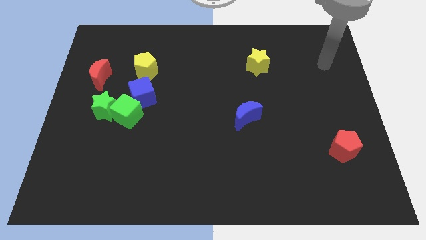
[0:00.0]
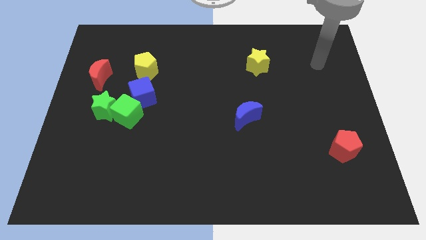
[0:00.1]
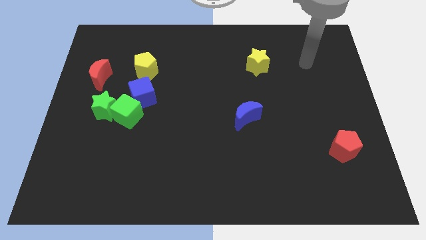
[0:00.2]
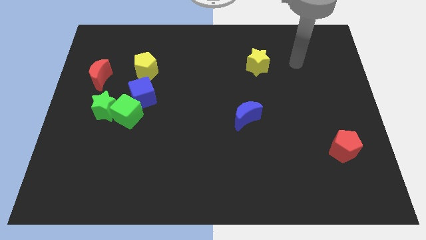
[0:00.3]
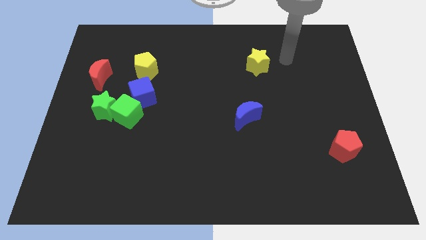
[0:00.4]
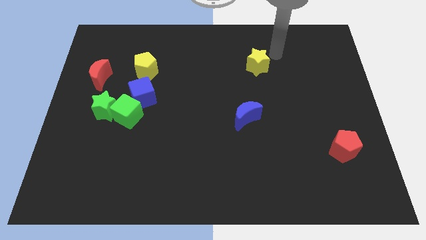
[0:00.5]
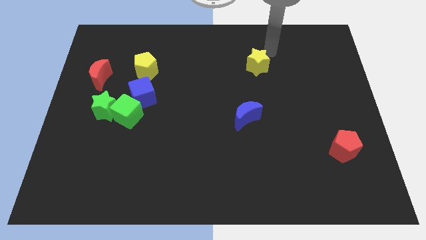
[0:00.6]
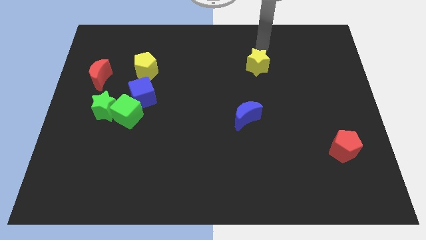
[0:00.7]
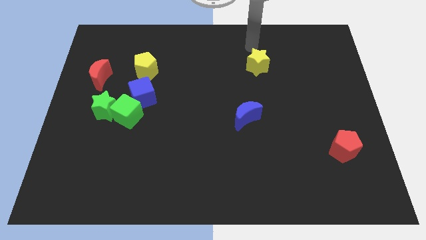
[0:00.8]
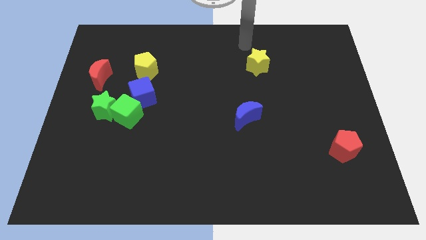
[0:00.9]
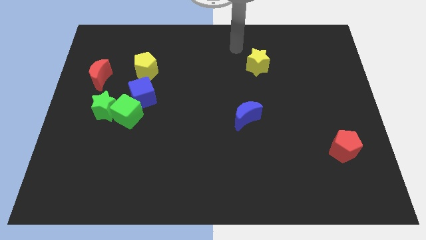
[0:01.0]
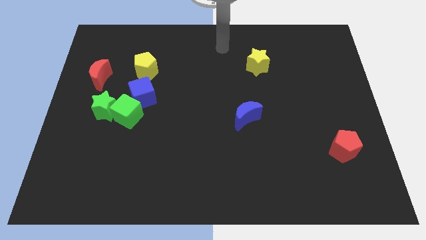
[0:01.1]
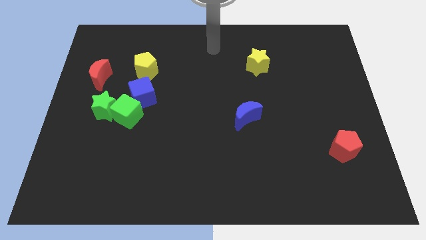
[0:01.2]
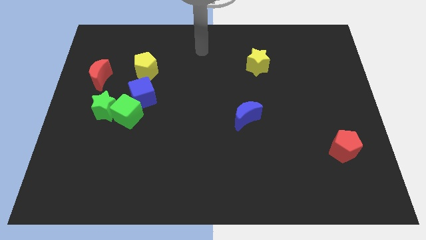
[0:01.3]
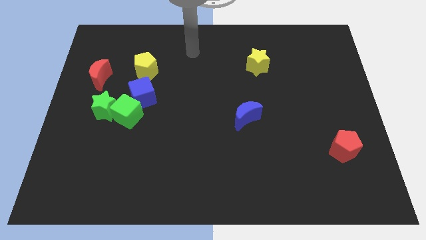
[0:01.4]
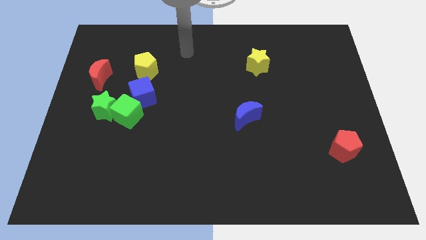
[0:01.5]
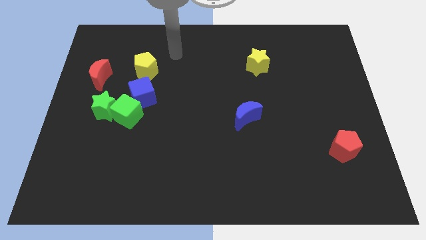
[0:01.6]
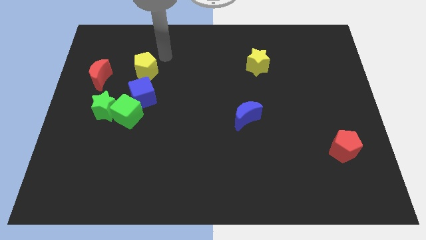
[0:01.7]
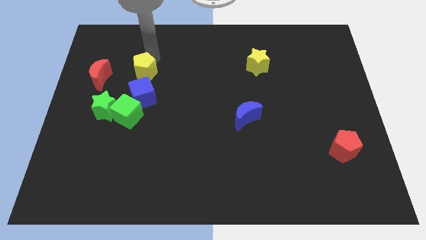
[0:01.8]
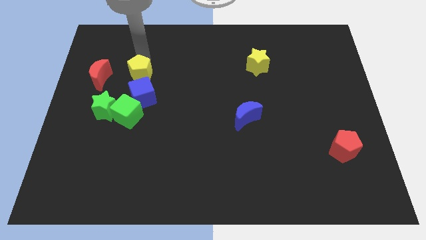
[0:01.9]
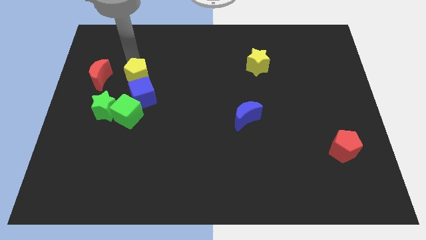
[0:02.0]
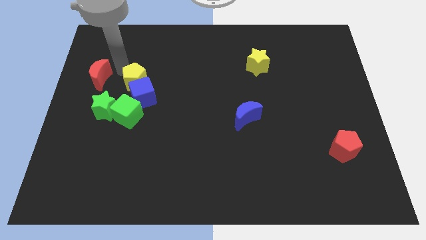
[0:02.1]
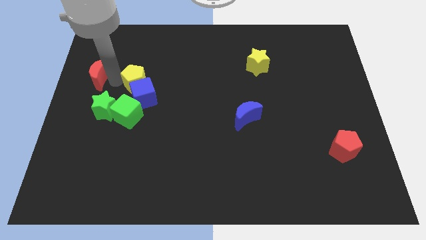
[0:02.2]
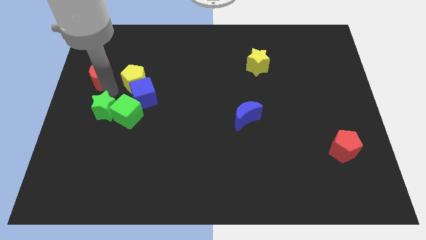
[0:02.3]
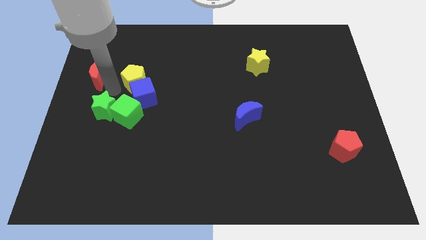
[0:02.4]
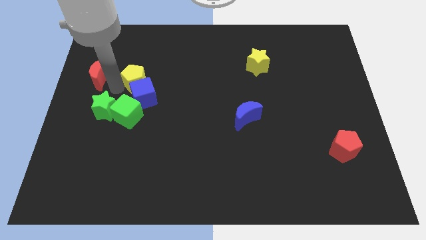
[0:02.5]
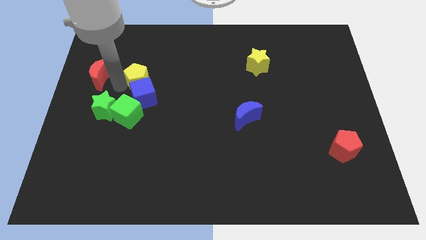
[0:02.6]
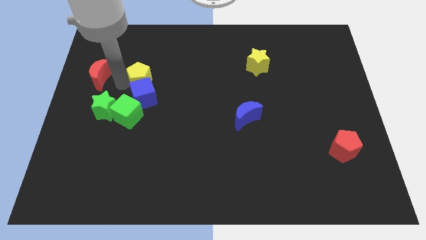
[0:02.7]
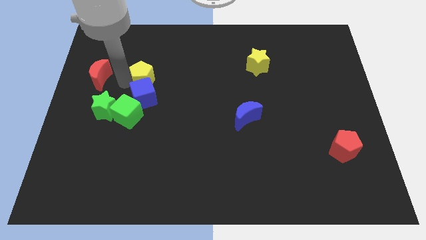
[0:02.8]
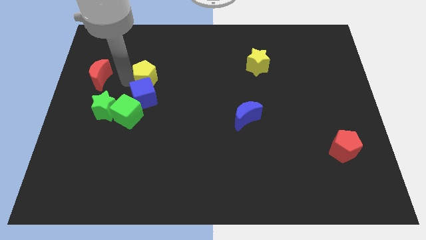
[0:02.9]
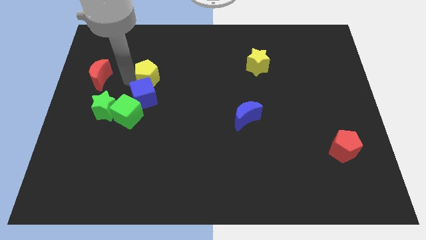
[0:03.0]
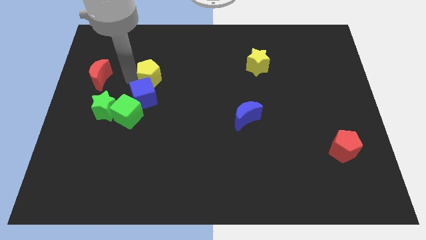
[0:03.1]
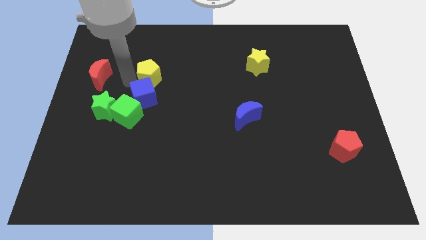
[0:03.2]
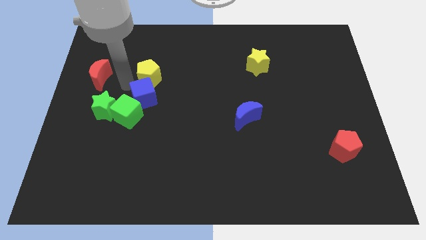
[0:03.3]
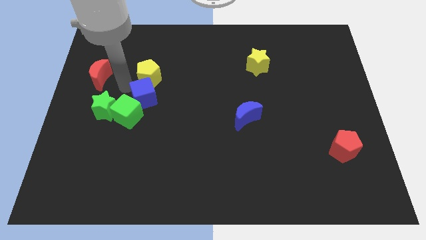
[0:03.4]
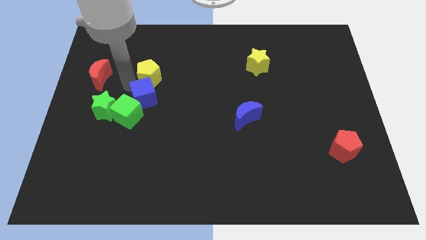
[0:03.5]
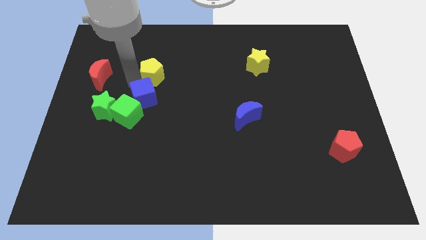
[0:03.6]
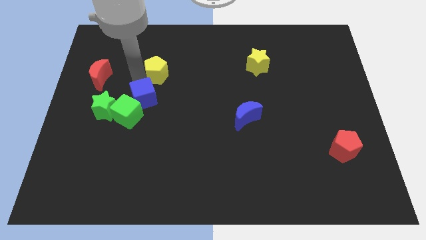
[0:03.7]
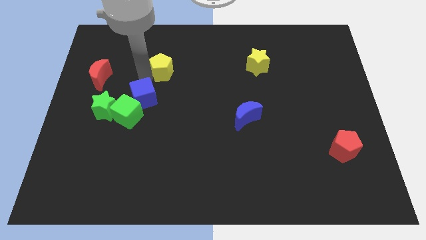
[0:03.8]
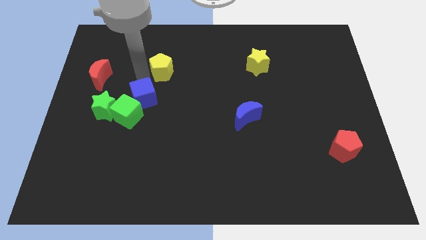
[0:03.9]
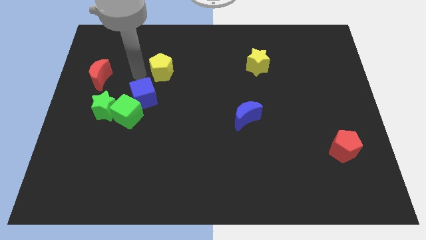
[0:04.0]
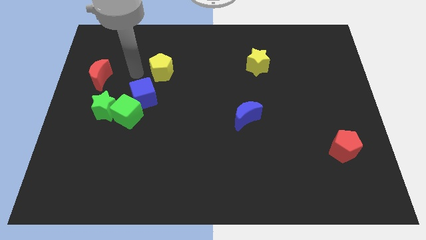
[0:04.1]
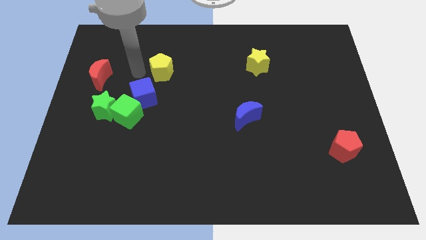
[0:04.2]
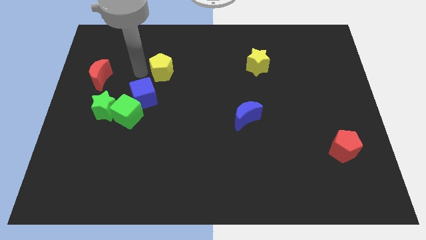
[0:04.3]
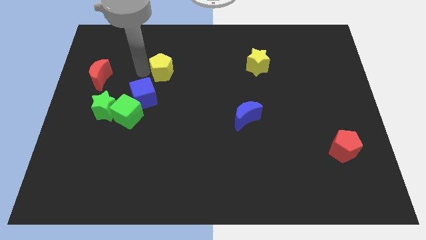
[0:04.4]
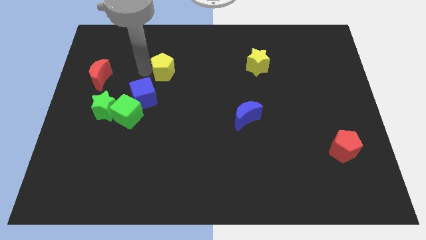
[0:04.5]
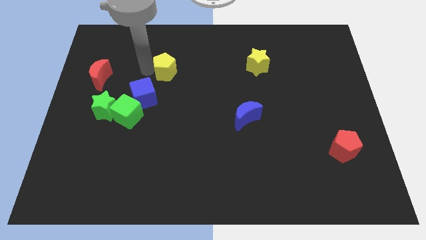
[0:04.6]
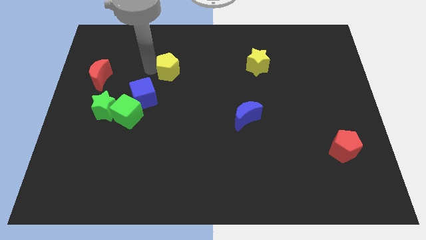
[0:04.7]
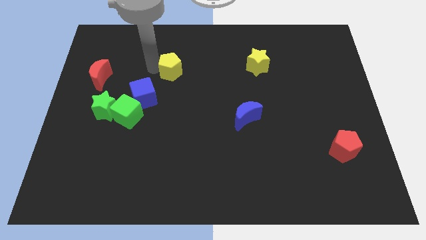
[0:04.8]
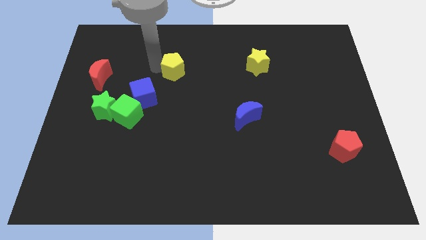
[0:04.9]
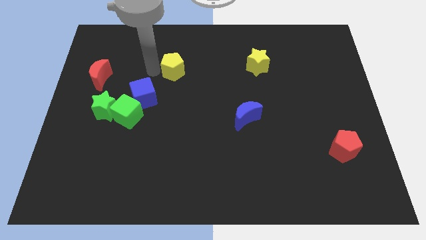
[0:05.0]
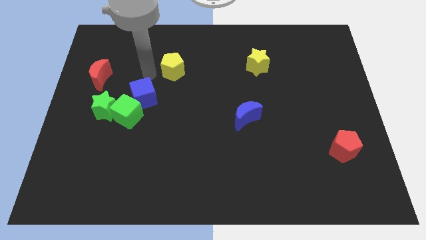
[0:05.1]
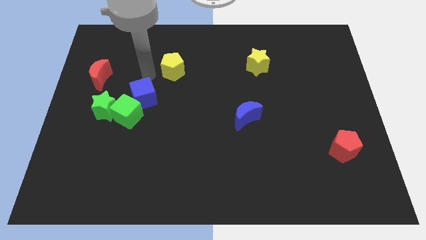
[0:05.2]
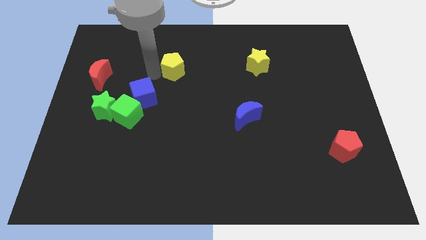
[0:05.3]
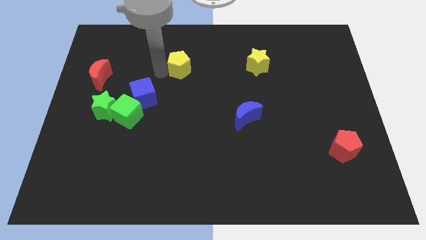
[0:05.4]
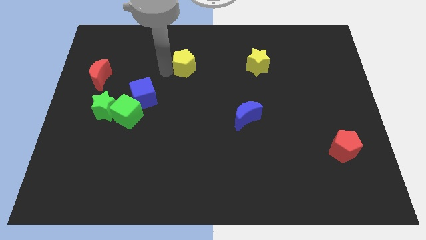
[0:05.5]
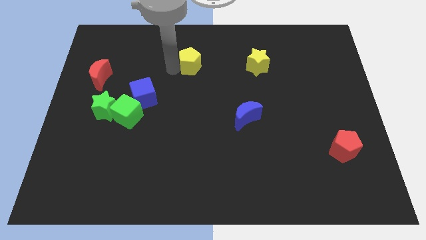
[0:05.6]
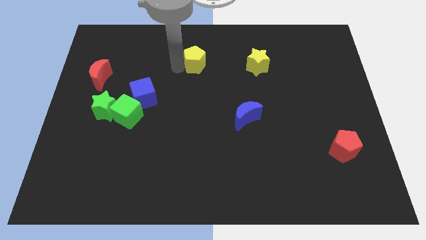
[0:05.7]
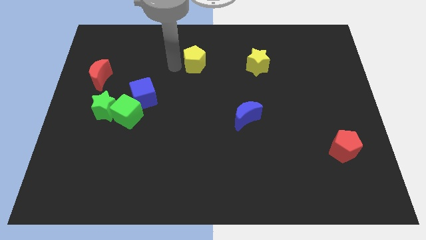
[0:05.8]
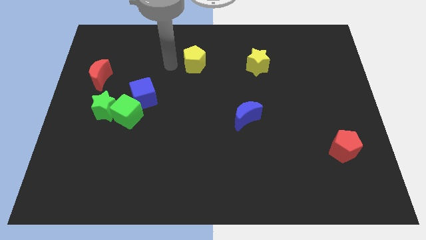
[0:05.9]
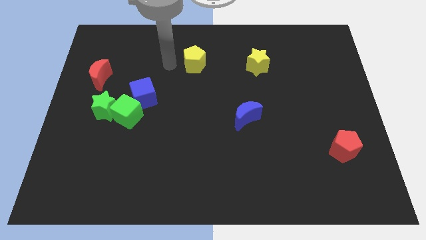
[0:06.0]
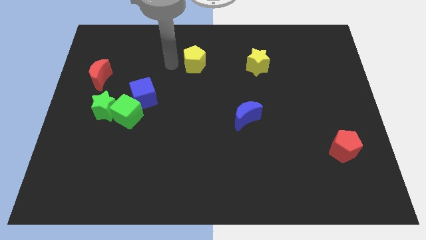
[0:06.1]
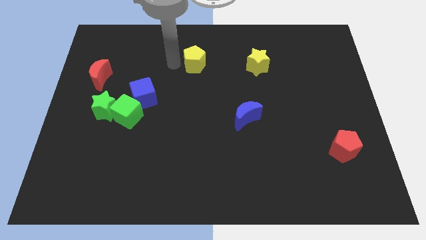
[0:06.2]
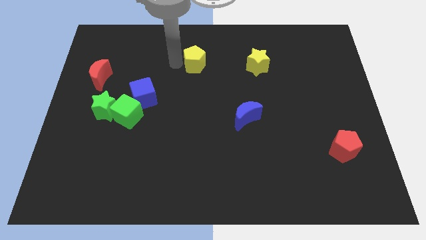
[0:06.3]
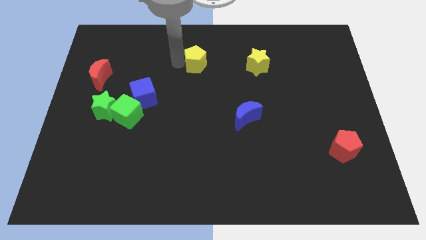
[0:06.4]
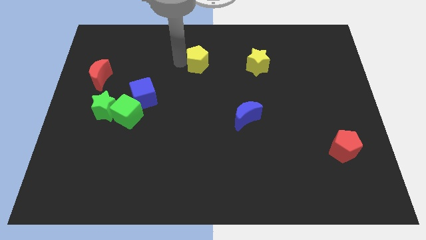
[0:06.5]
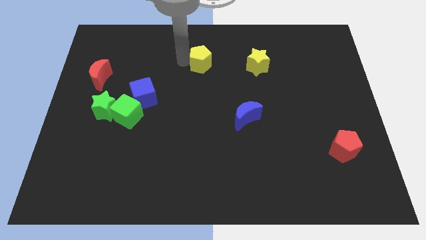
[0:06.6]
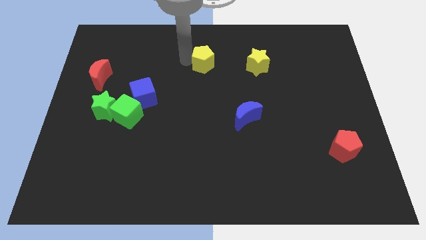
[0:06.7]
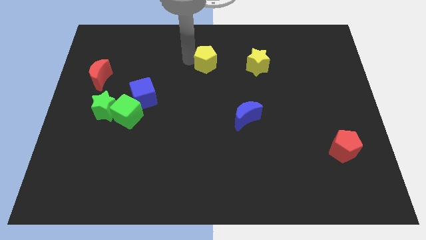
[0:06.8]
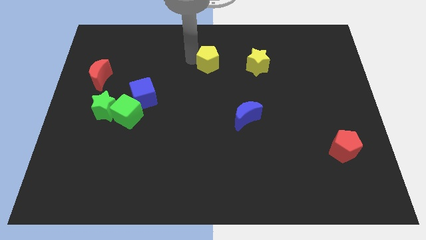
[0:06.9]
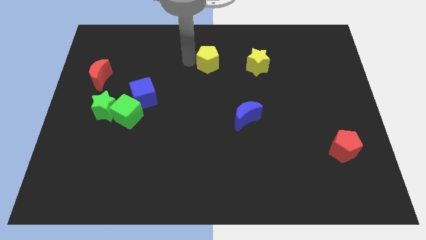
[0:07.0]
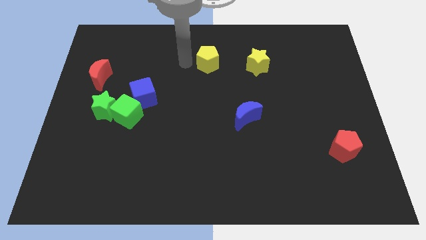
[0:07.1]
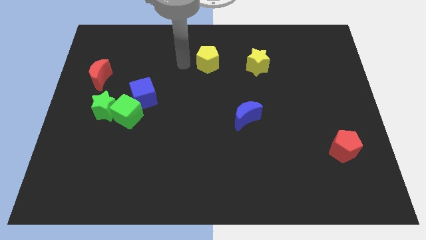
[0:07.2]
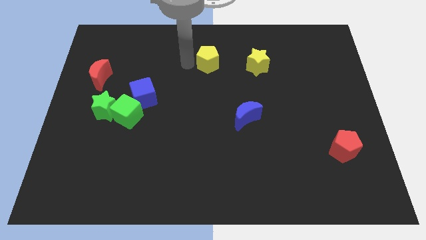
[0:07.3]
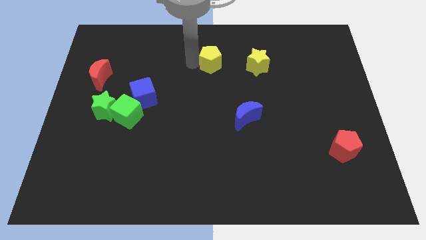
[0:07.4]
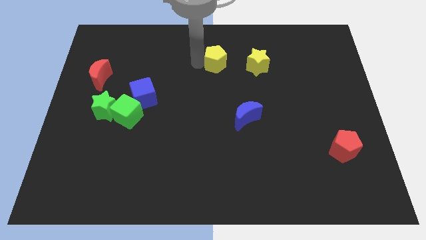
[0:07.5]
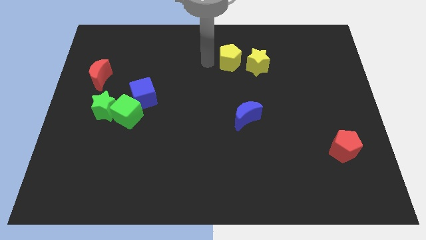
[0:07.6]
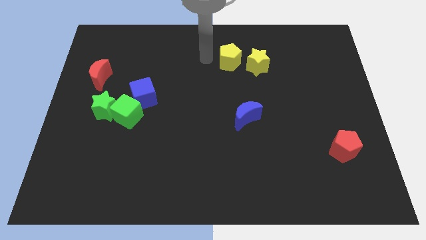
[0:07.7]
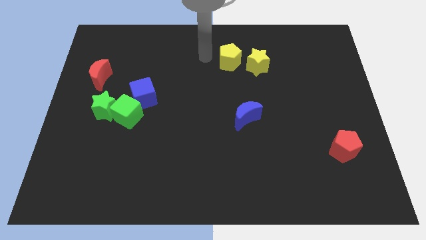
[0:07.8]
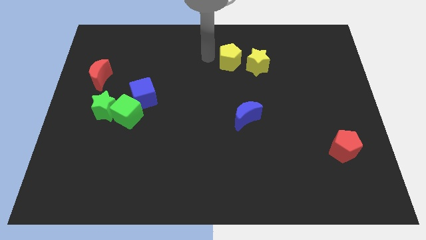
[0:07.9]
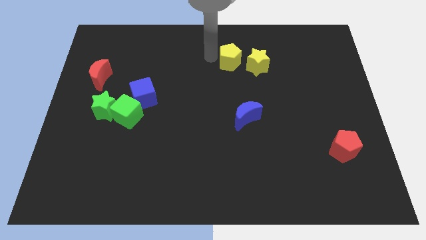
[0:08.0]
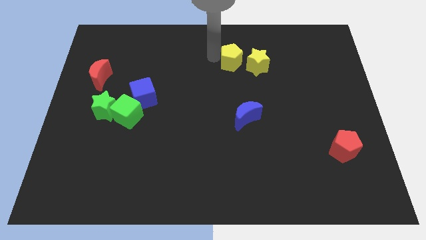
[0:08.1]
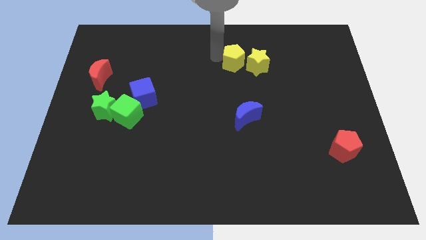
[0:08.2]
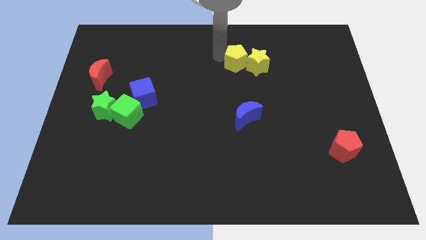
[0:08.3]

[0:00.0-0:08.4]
put the yellow pentagon next to the yellow star
